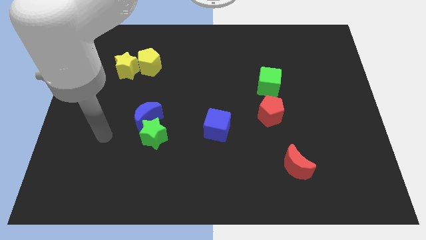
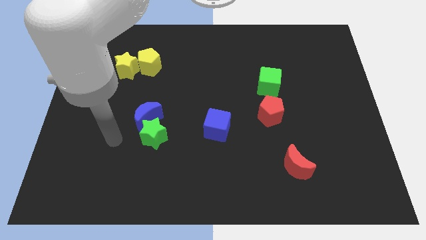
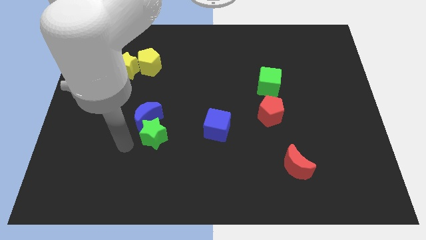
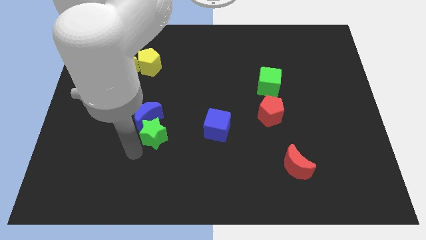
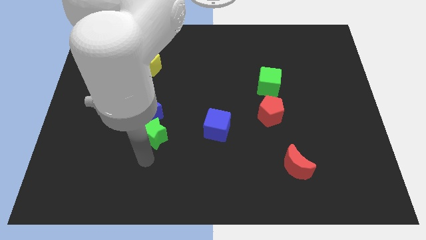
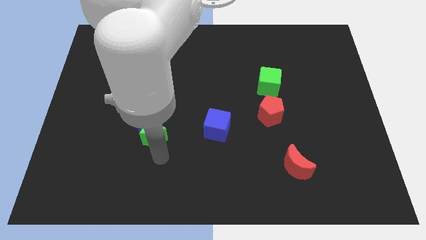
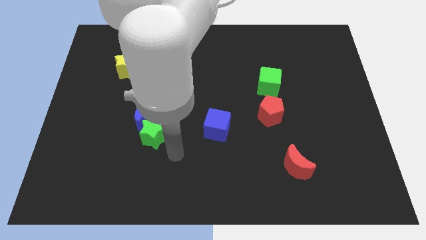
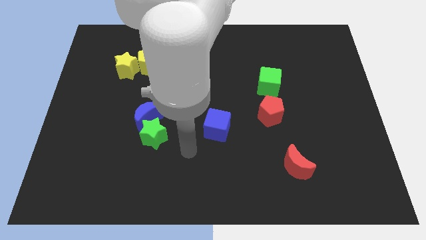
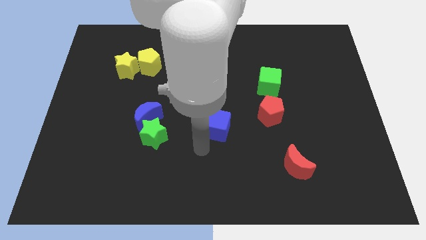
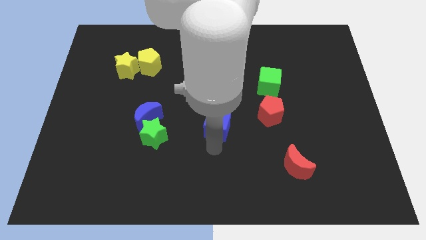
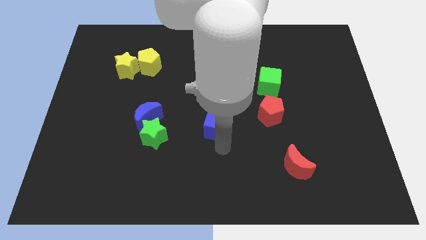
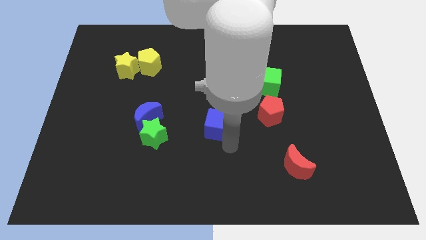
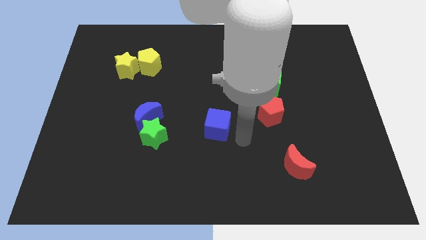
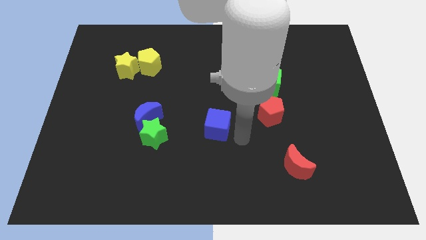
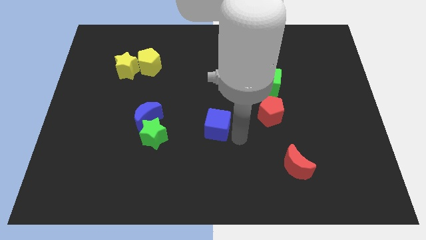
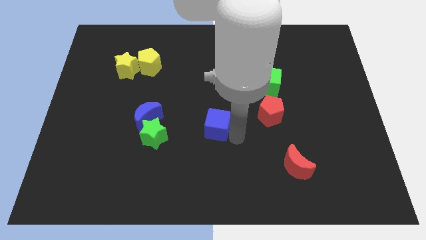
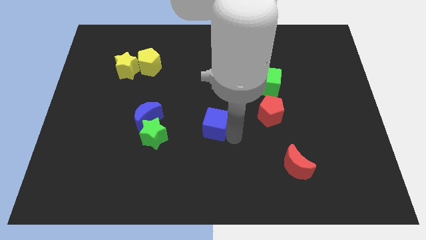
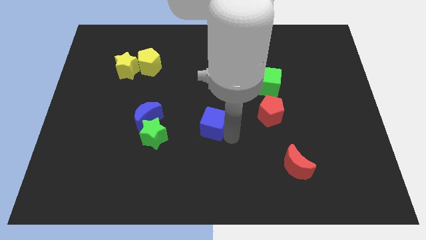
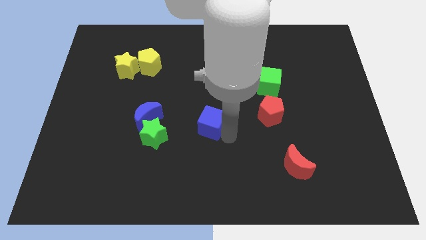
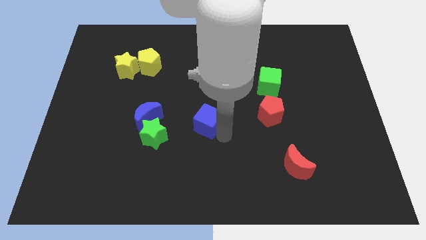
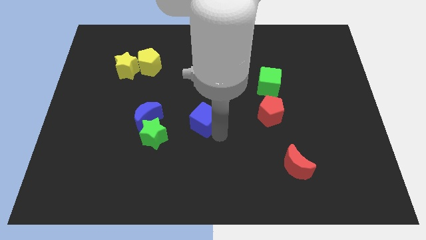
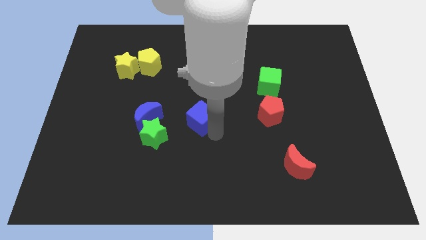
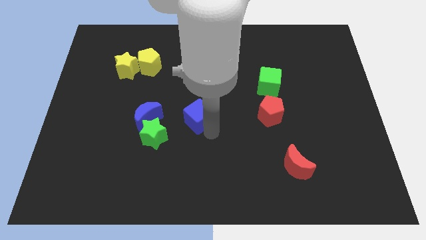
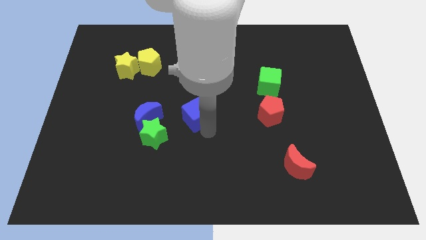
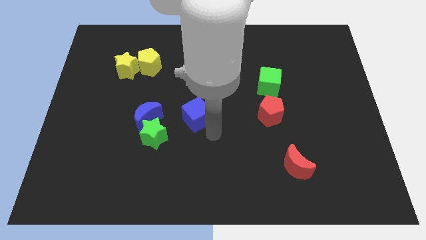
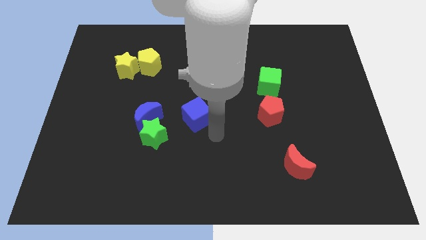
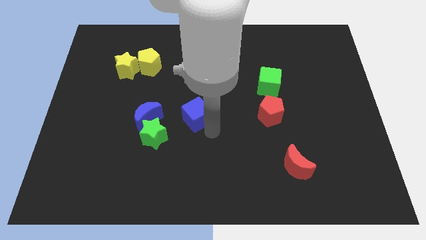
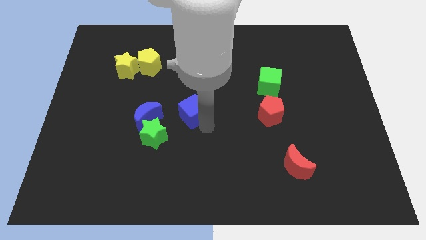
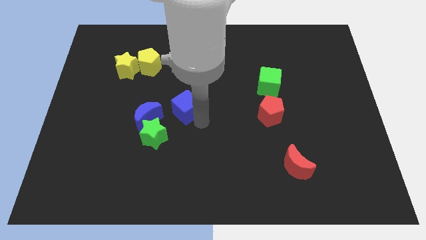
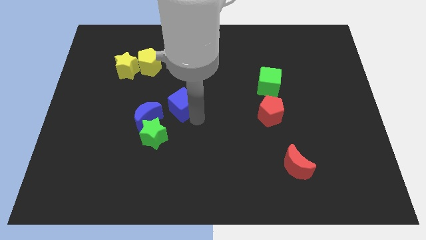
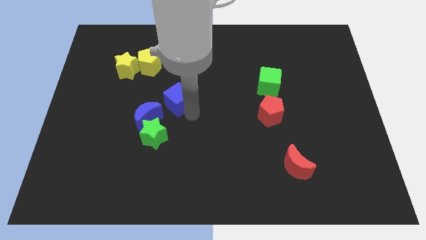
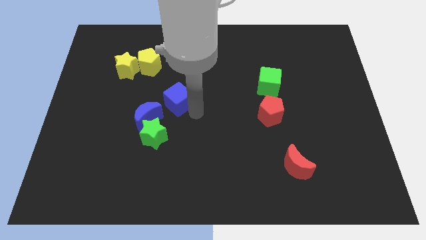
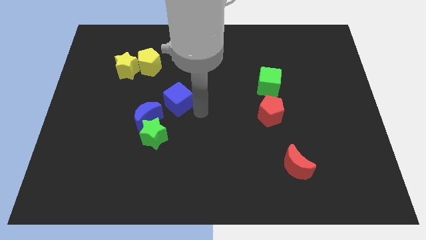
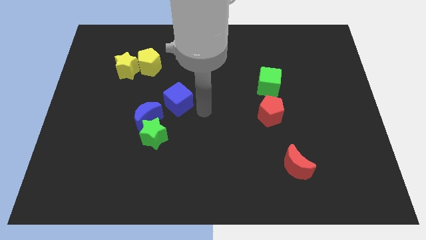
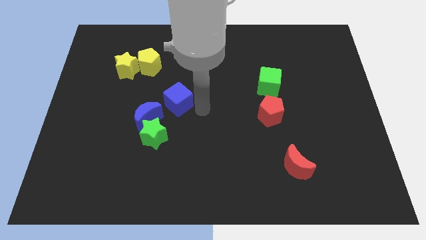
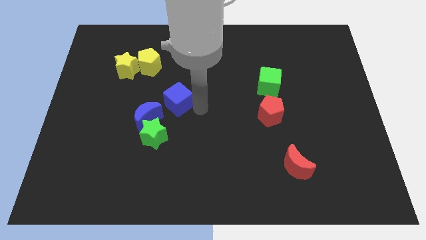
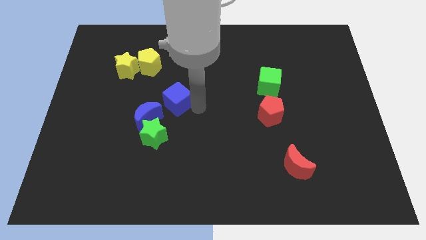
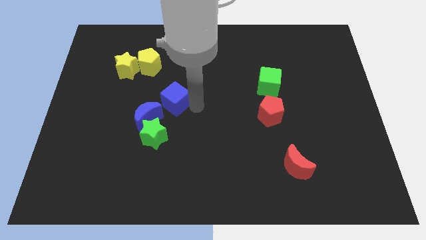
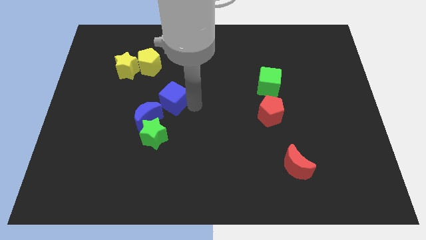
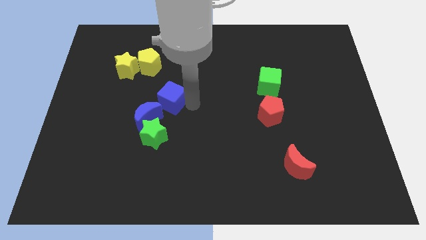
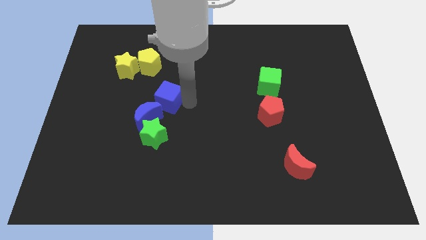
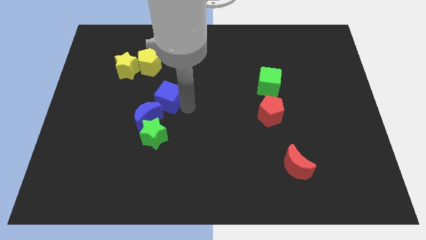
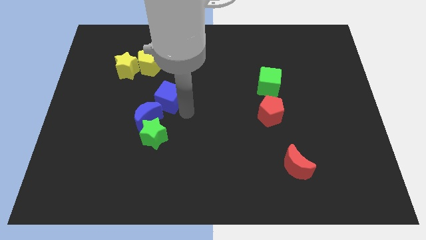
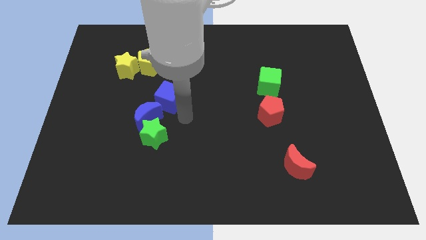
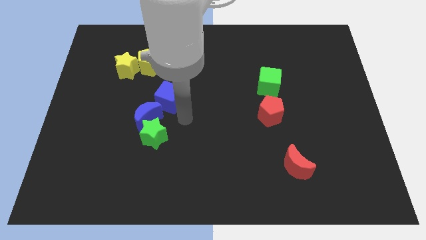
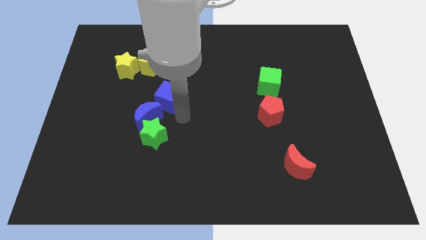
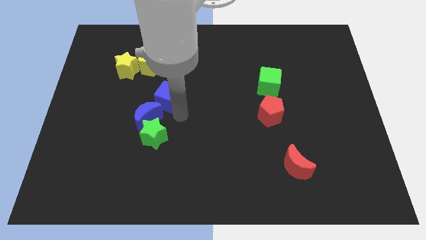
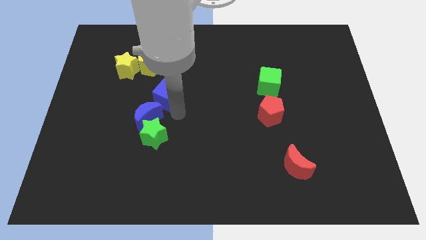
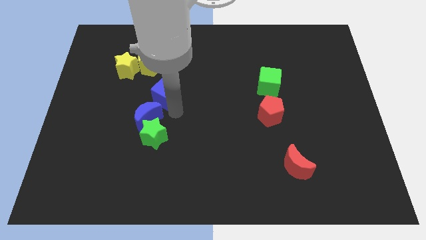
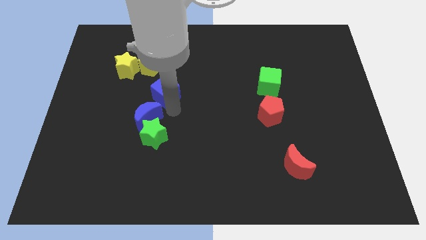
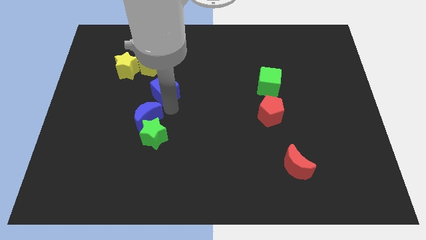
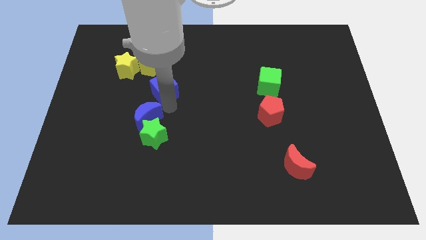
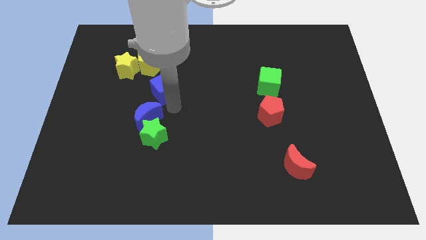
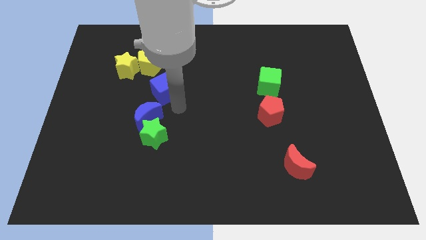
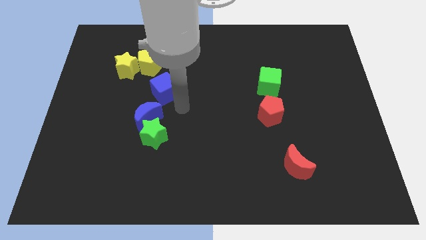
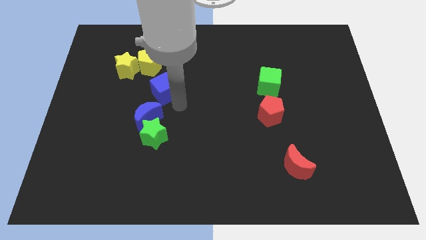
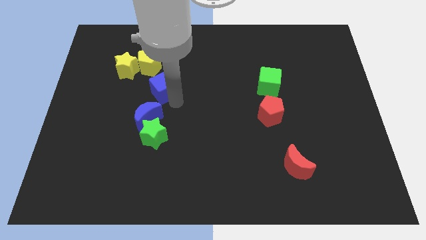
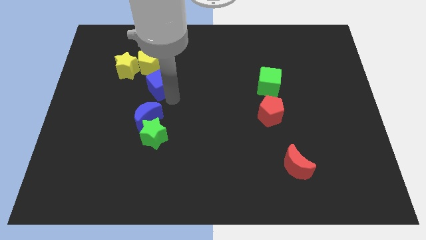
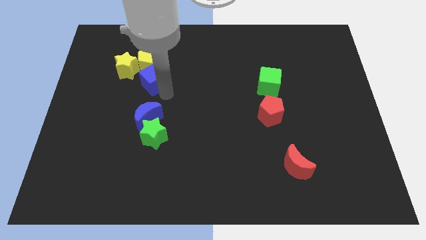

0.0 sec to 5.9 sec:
move the blue cube to the yellow pentagon

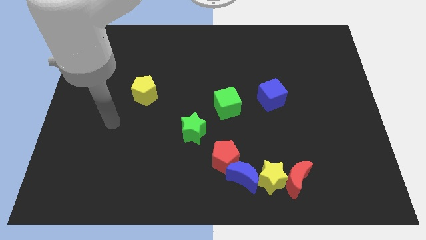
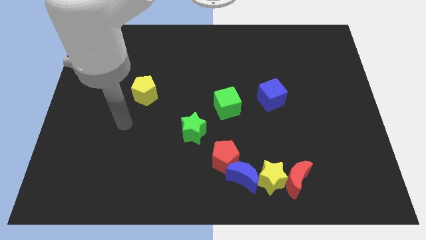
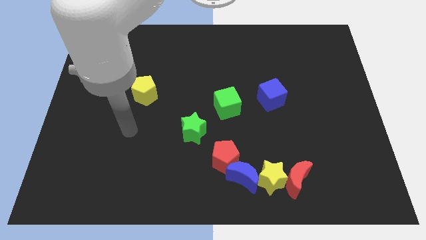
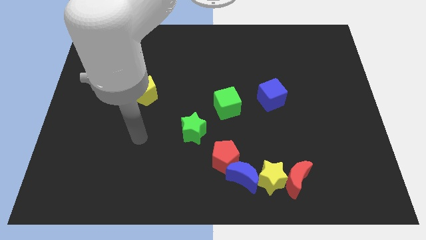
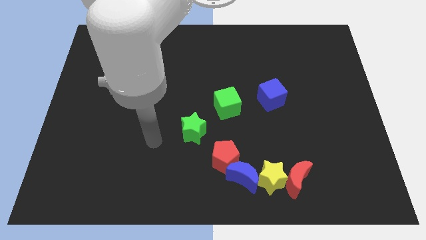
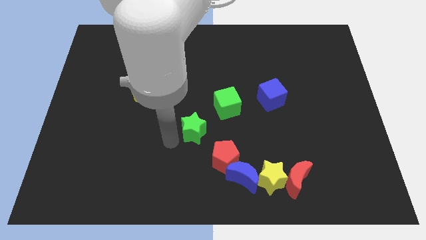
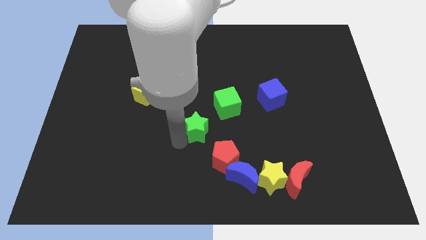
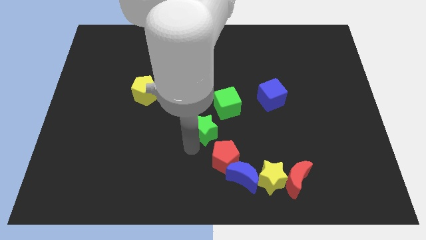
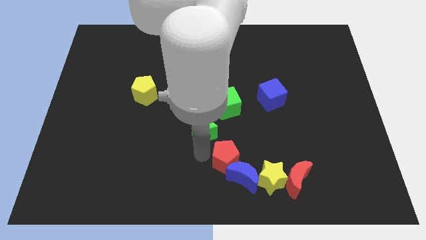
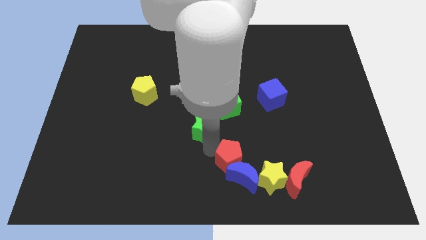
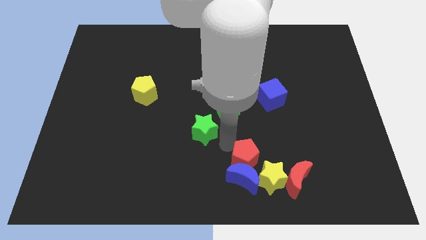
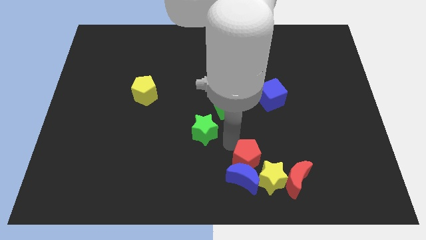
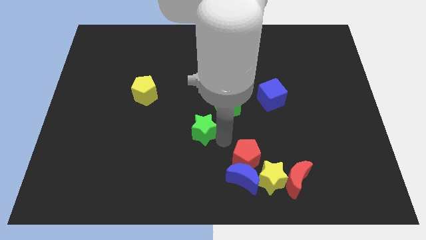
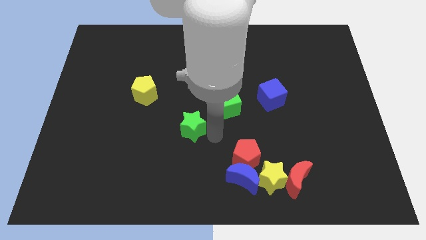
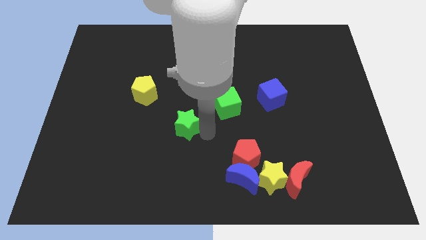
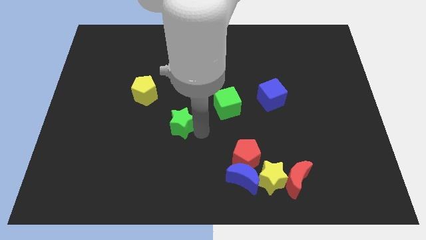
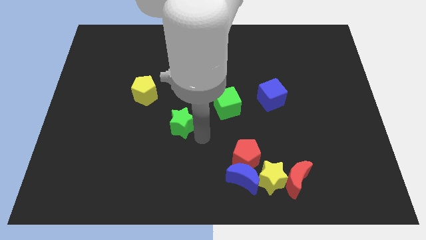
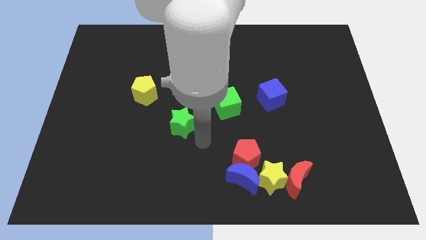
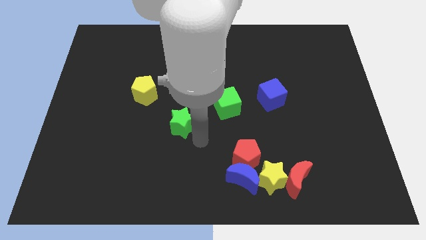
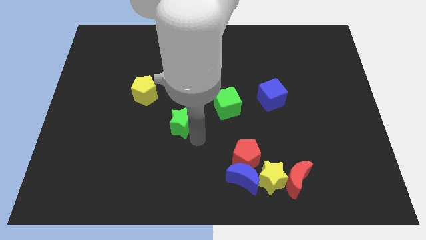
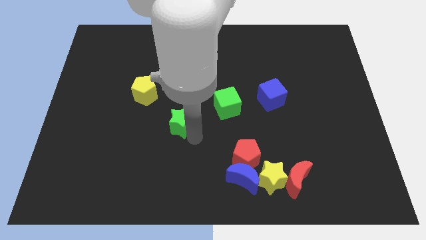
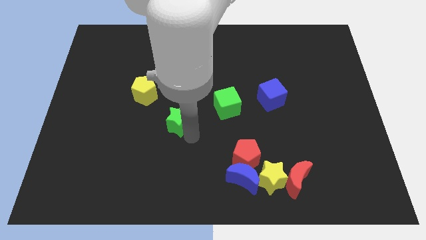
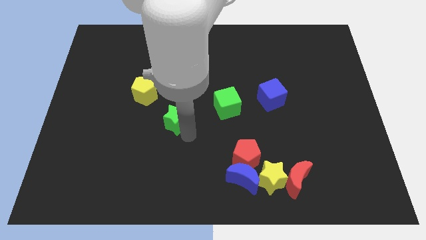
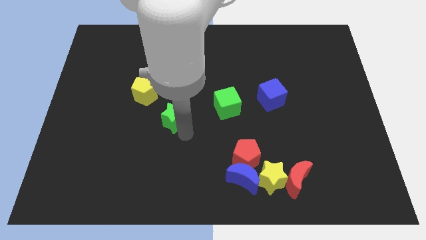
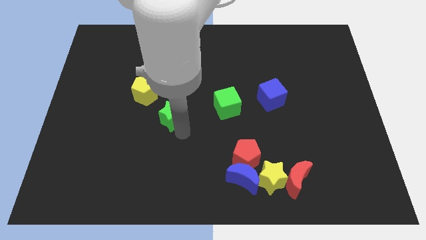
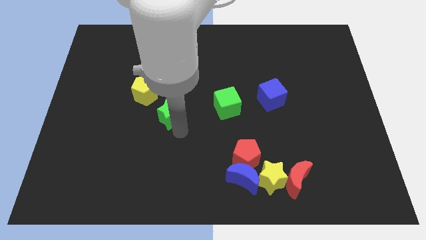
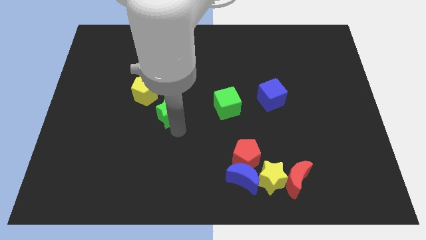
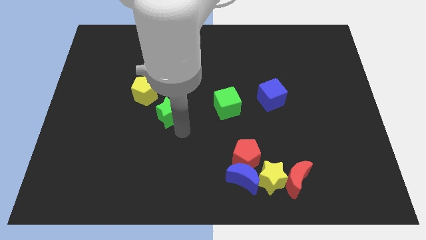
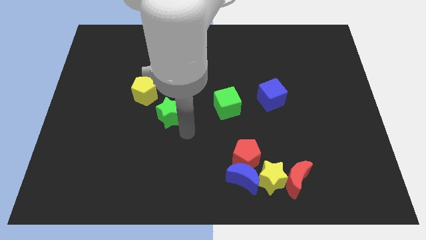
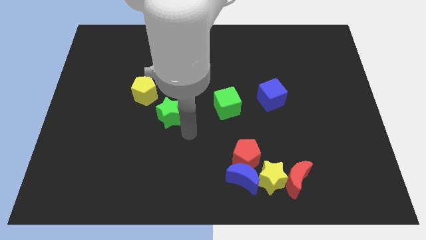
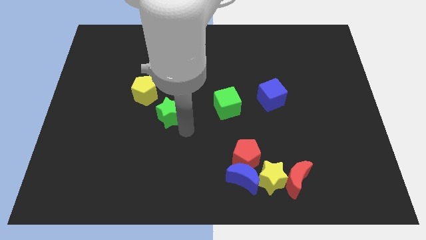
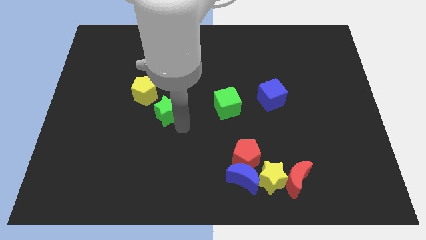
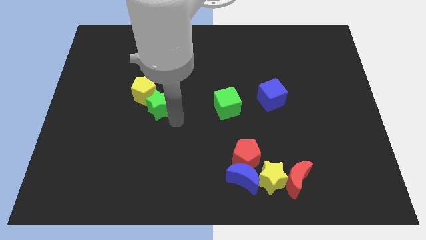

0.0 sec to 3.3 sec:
push the green star towards the yellow pentagon
